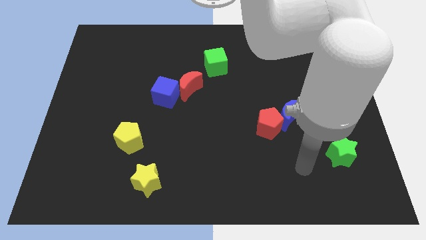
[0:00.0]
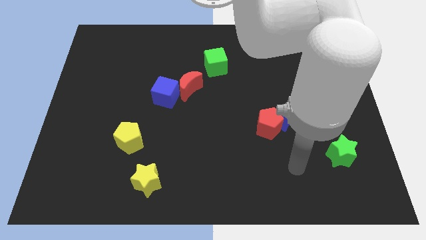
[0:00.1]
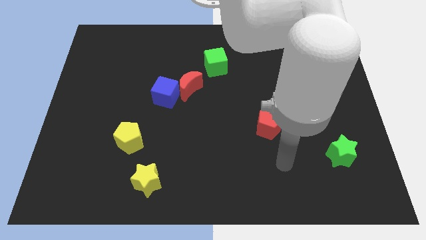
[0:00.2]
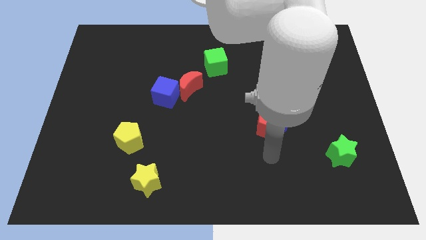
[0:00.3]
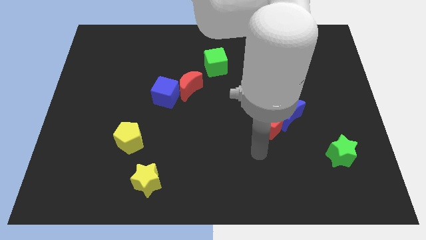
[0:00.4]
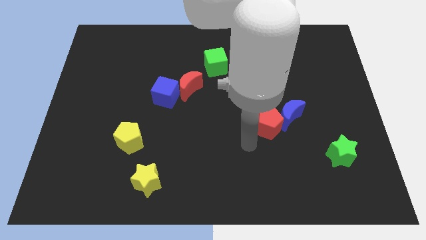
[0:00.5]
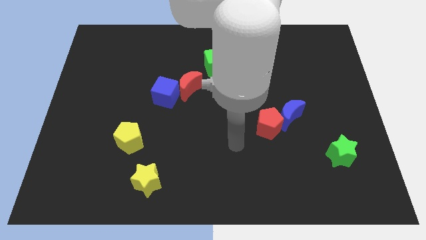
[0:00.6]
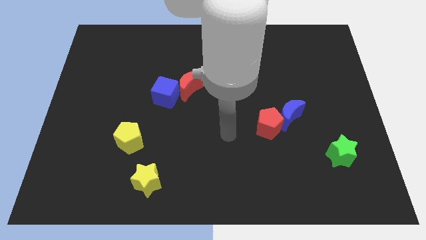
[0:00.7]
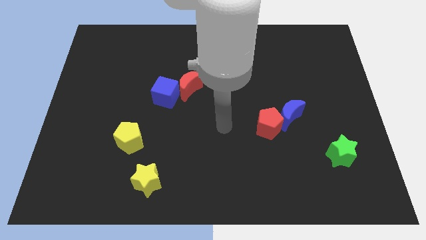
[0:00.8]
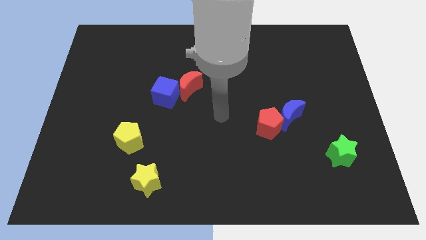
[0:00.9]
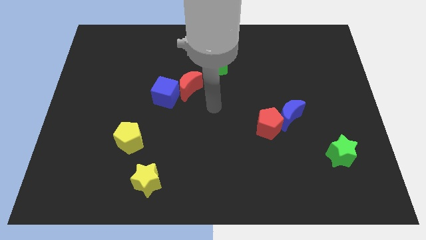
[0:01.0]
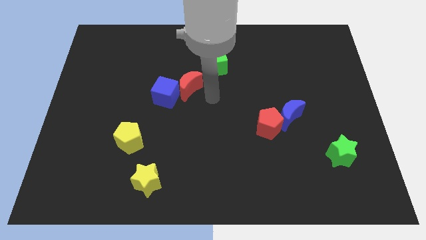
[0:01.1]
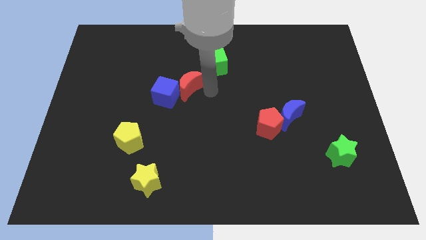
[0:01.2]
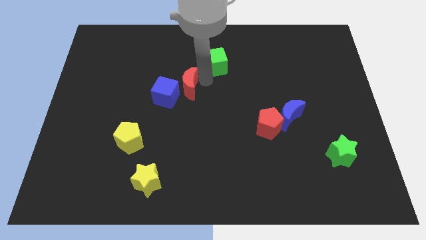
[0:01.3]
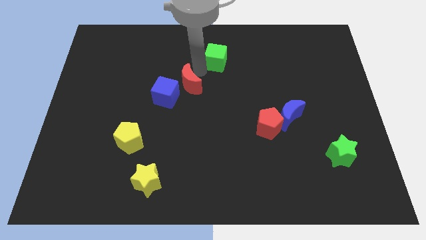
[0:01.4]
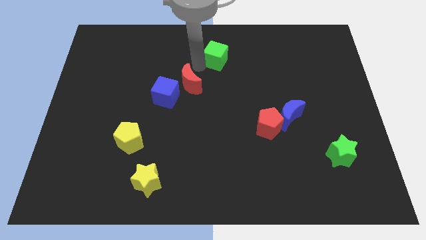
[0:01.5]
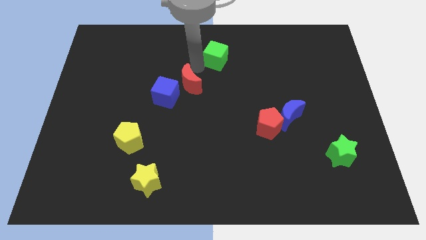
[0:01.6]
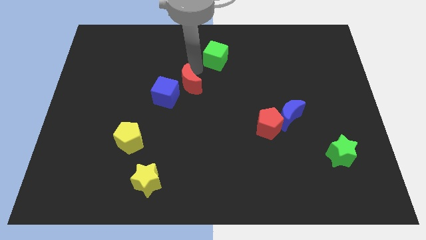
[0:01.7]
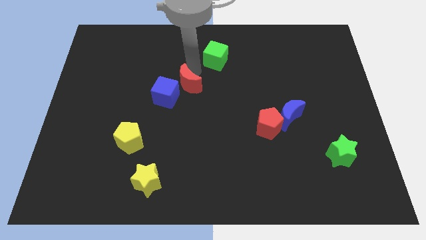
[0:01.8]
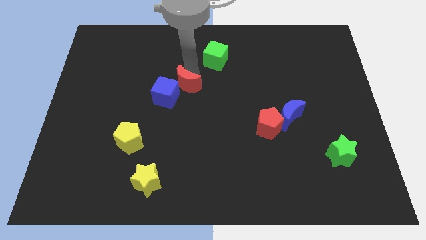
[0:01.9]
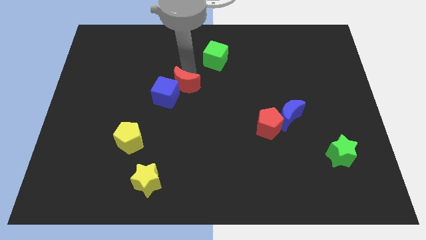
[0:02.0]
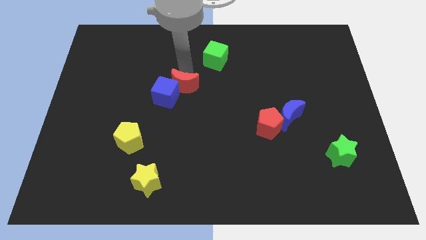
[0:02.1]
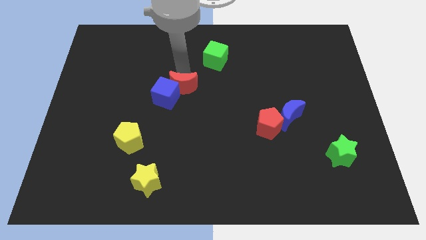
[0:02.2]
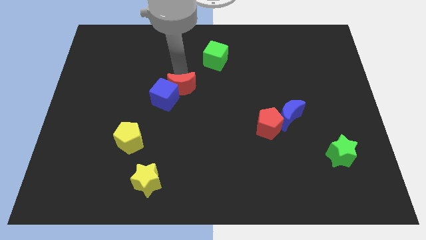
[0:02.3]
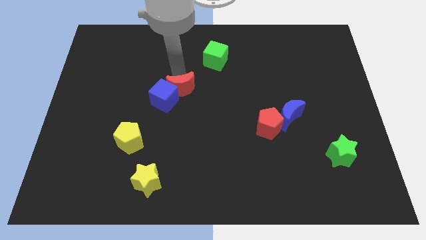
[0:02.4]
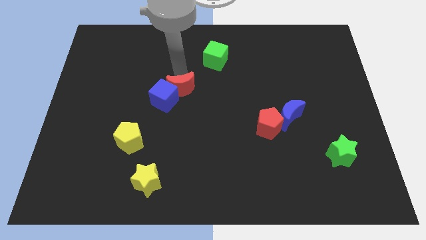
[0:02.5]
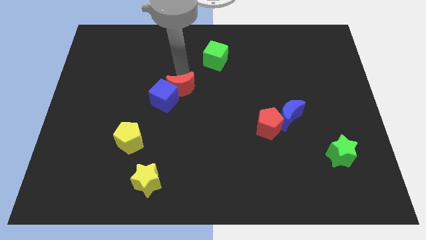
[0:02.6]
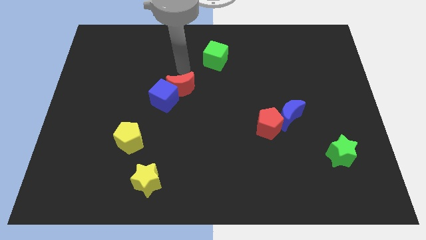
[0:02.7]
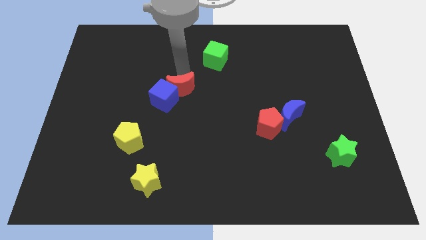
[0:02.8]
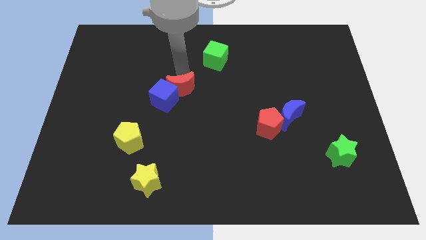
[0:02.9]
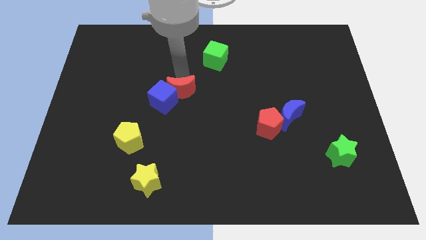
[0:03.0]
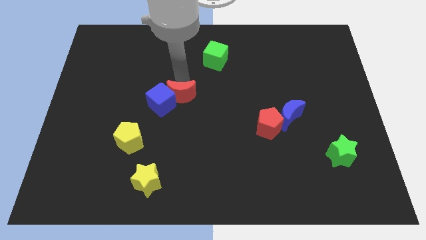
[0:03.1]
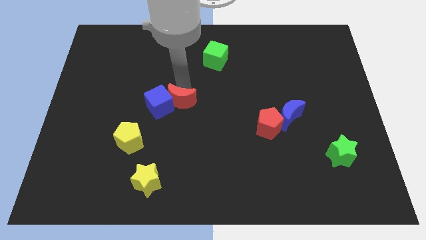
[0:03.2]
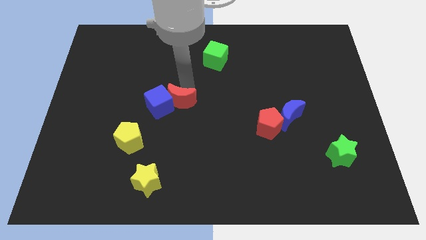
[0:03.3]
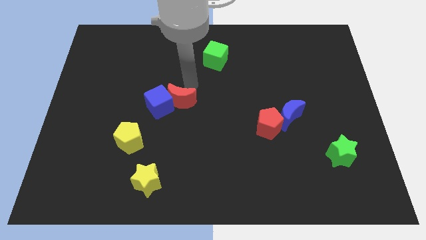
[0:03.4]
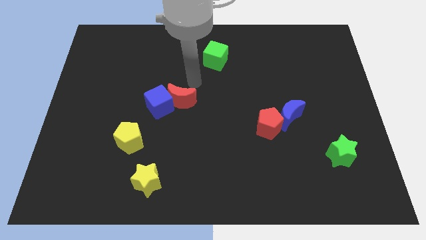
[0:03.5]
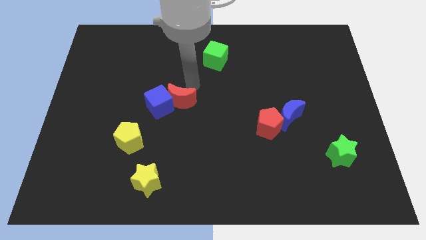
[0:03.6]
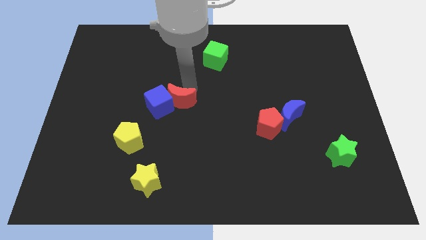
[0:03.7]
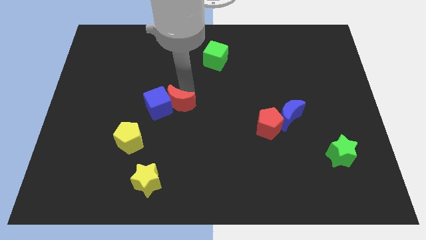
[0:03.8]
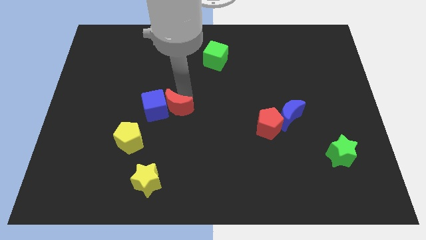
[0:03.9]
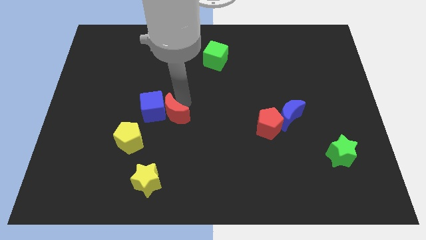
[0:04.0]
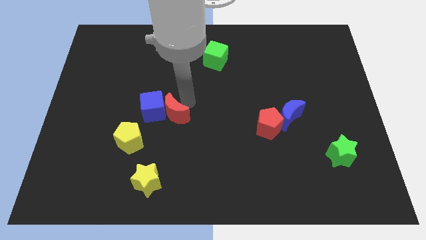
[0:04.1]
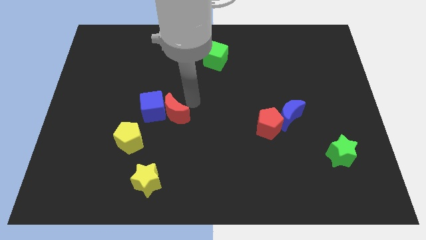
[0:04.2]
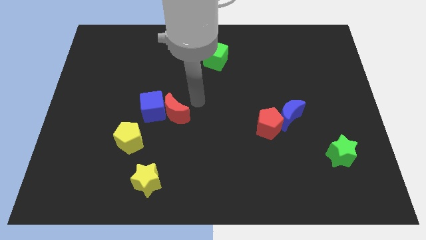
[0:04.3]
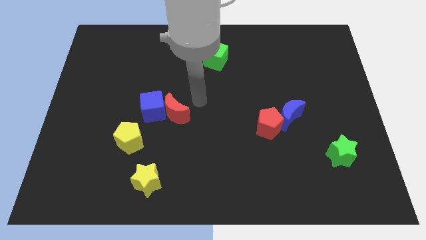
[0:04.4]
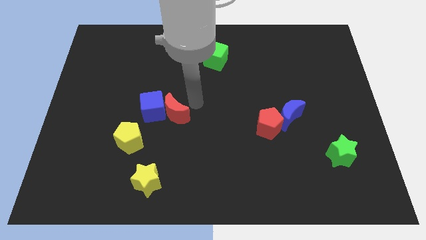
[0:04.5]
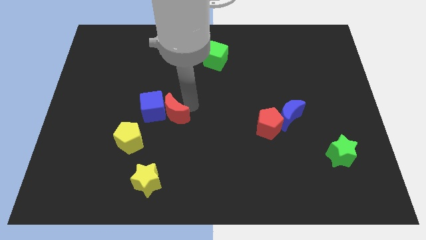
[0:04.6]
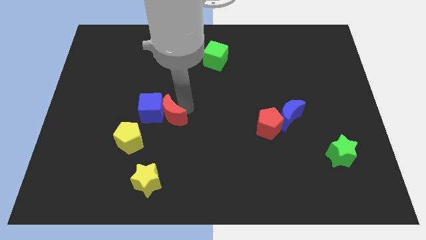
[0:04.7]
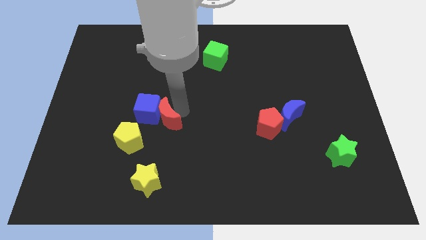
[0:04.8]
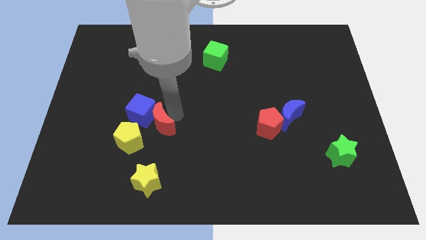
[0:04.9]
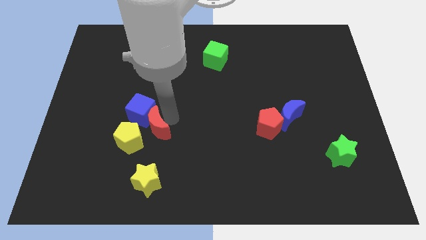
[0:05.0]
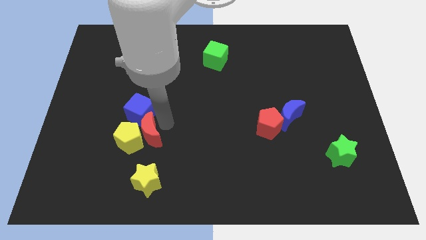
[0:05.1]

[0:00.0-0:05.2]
put the red moon towards the yellow pentagon

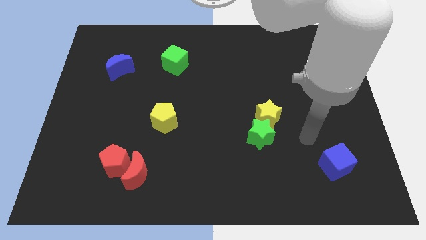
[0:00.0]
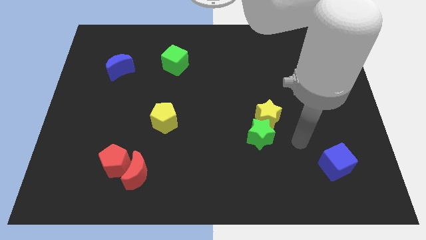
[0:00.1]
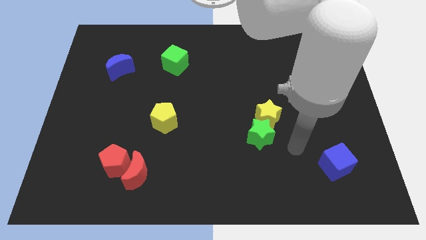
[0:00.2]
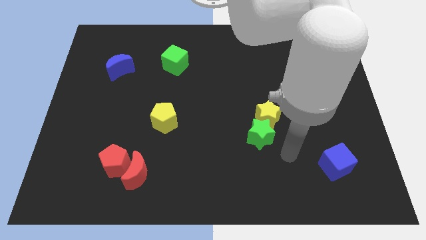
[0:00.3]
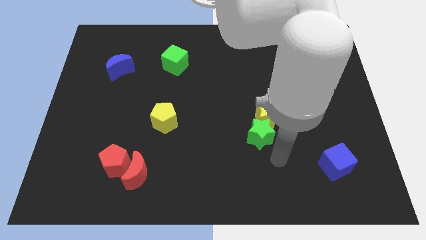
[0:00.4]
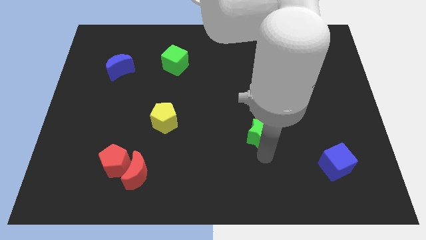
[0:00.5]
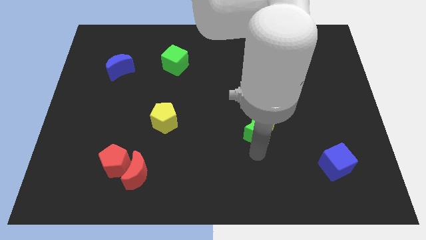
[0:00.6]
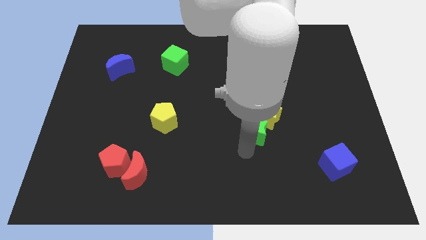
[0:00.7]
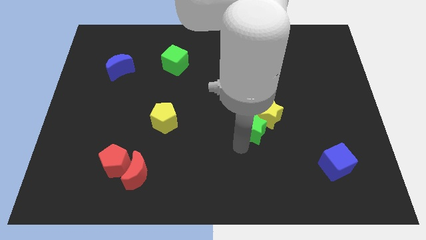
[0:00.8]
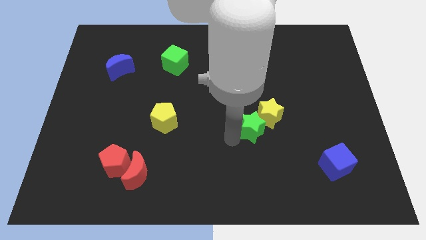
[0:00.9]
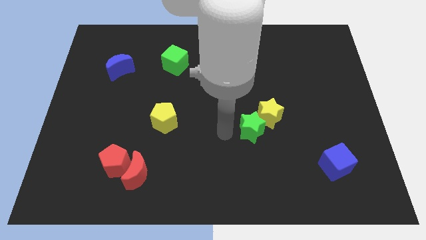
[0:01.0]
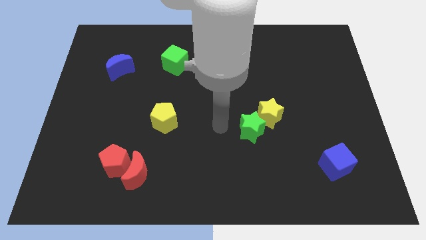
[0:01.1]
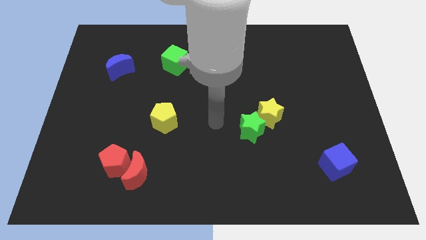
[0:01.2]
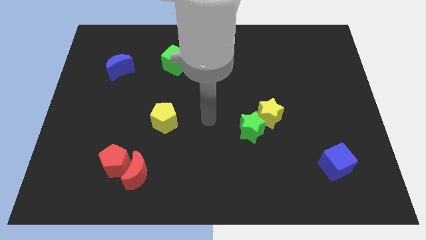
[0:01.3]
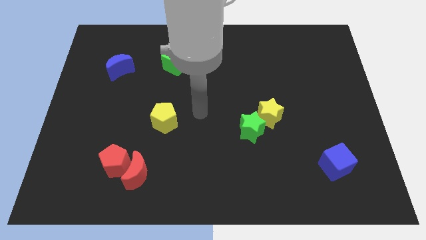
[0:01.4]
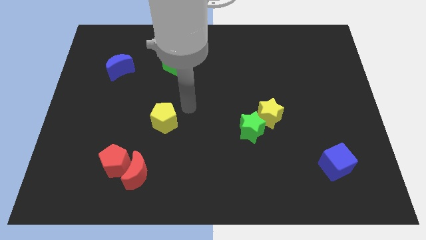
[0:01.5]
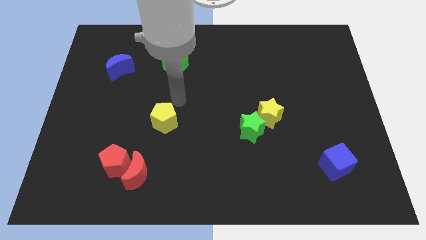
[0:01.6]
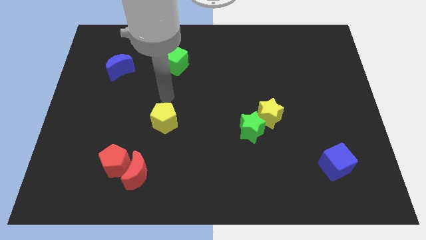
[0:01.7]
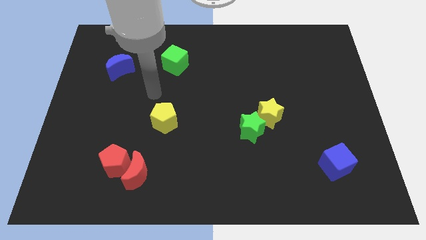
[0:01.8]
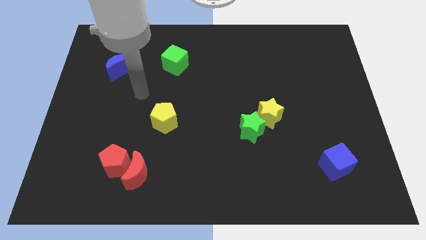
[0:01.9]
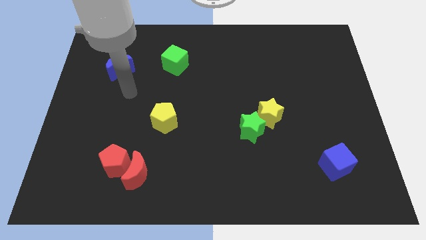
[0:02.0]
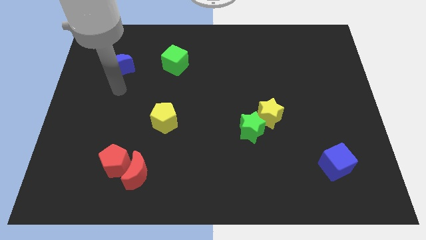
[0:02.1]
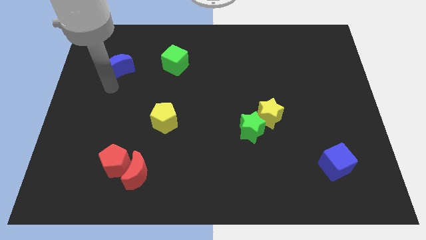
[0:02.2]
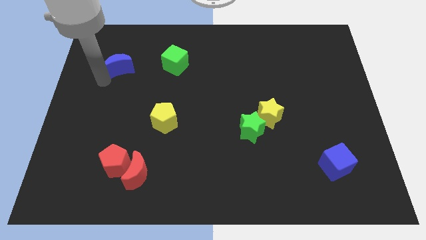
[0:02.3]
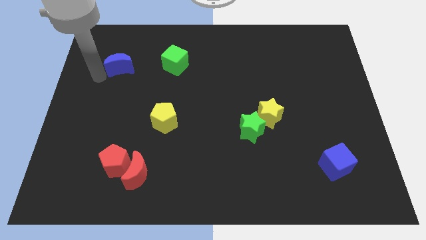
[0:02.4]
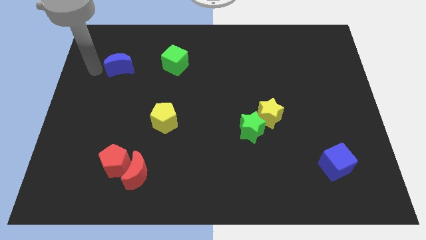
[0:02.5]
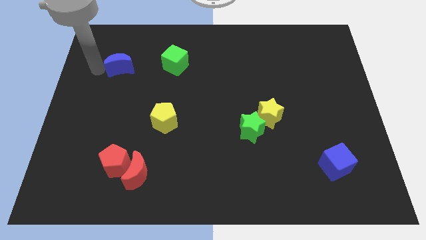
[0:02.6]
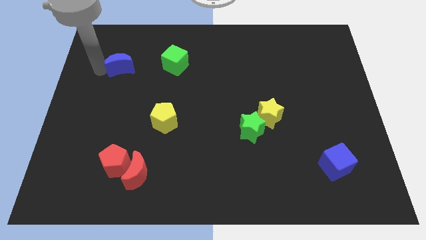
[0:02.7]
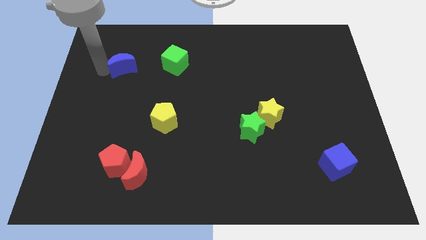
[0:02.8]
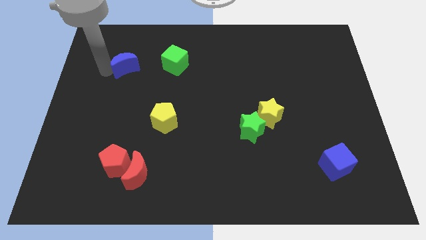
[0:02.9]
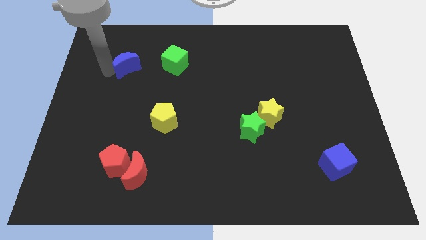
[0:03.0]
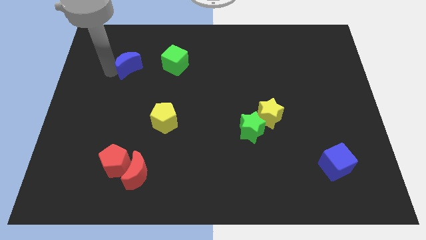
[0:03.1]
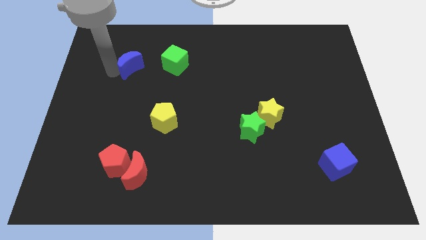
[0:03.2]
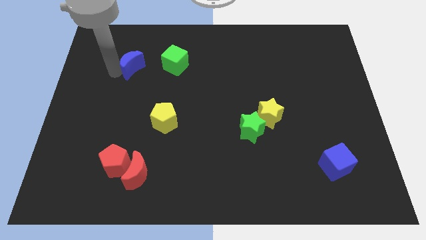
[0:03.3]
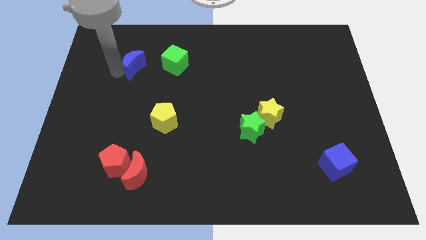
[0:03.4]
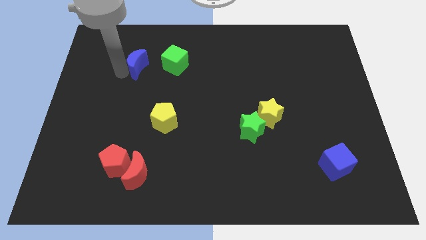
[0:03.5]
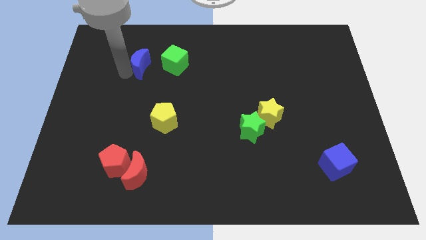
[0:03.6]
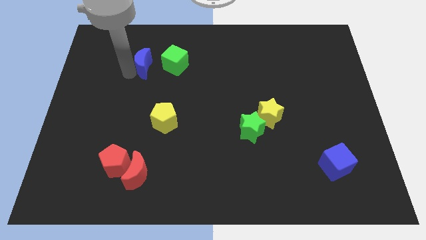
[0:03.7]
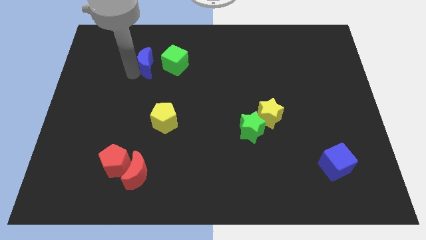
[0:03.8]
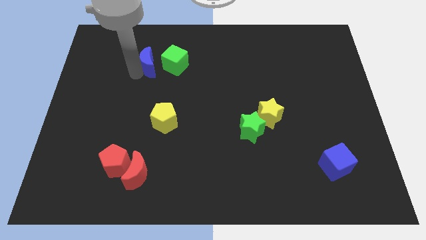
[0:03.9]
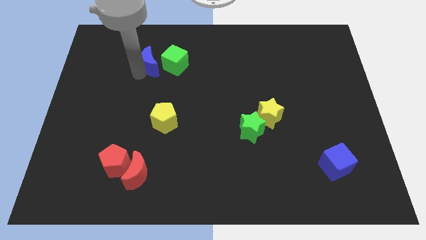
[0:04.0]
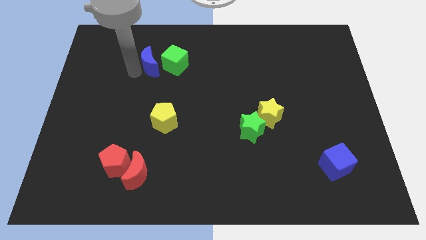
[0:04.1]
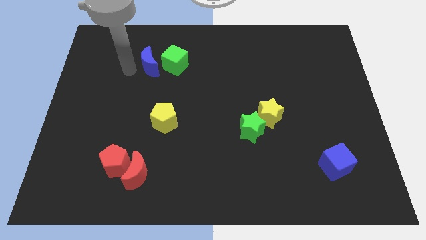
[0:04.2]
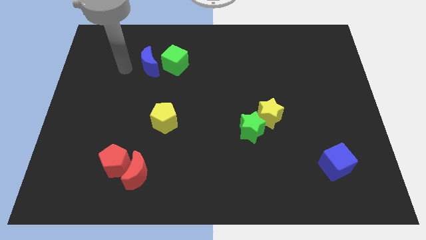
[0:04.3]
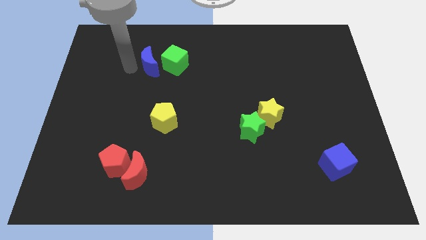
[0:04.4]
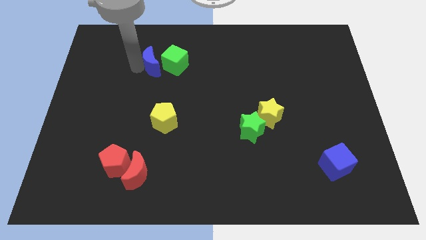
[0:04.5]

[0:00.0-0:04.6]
put the blue moon close to the green cube
